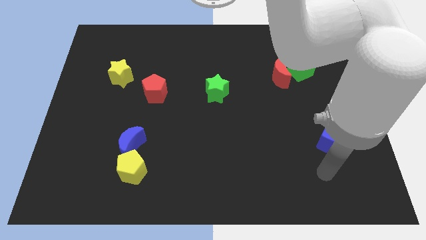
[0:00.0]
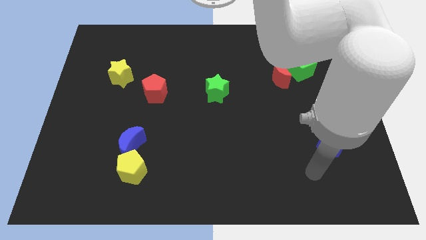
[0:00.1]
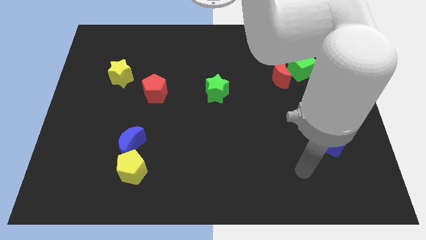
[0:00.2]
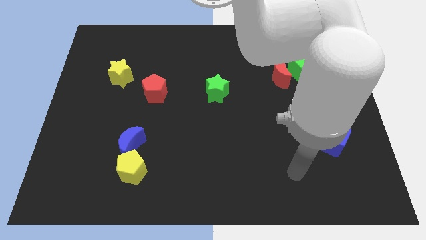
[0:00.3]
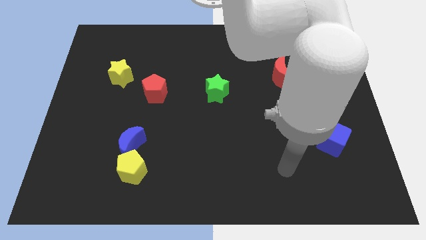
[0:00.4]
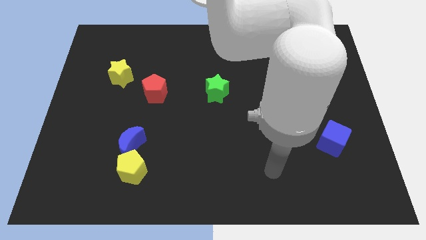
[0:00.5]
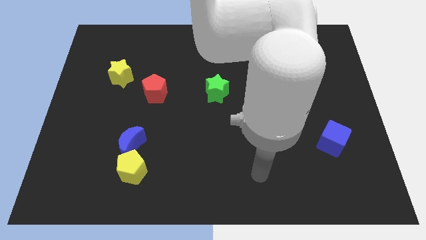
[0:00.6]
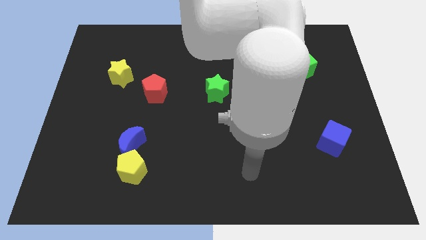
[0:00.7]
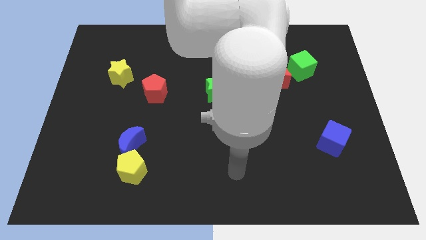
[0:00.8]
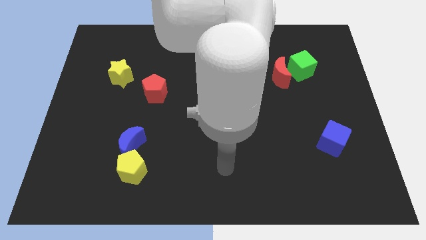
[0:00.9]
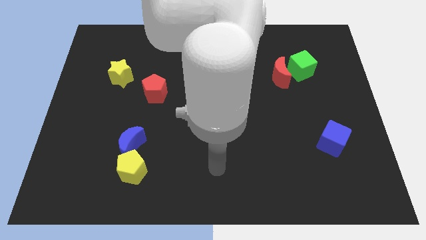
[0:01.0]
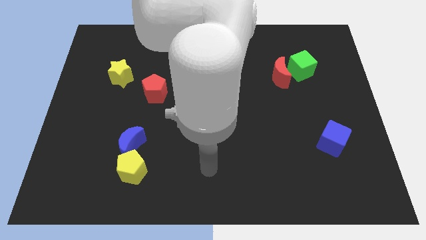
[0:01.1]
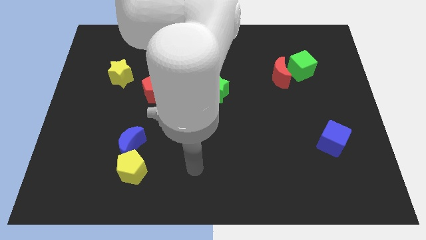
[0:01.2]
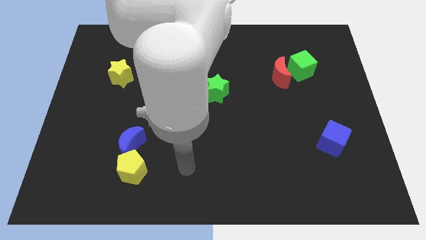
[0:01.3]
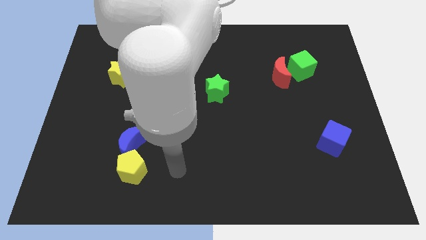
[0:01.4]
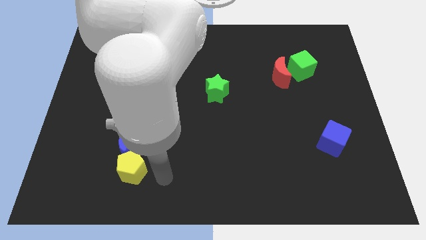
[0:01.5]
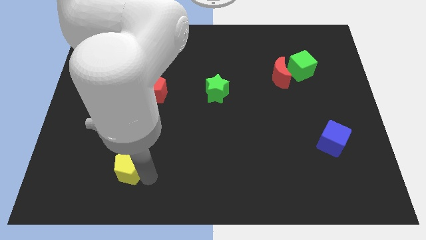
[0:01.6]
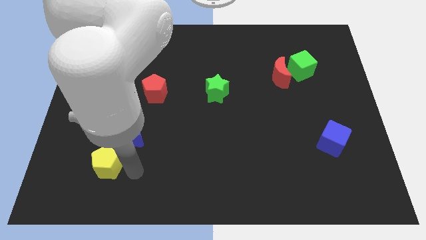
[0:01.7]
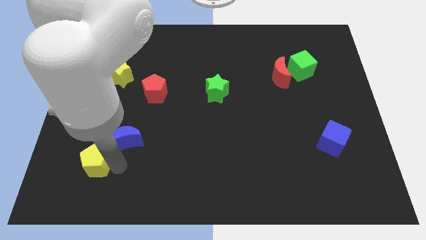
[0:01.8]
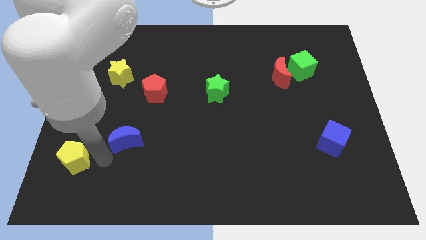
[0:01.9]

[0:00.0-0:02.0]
move the blue moon away from the yellow pentagon

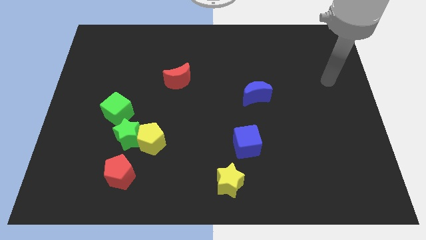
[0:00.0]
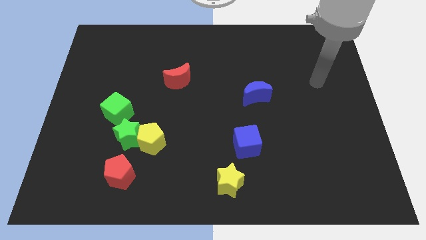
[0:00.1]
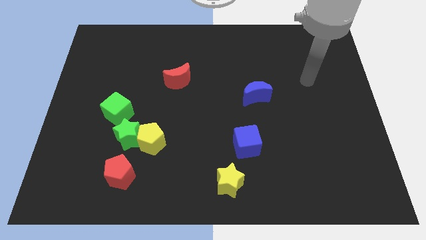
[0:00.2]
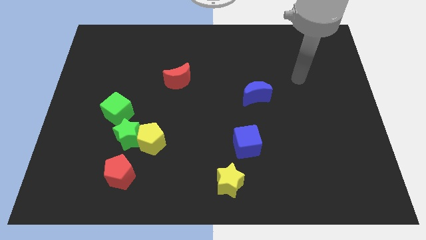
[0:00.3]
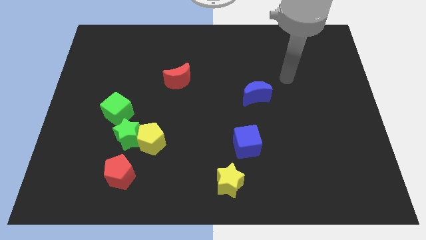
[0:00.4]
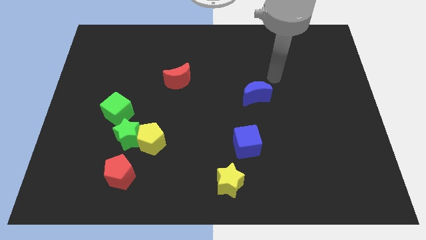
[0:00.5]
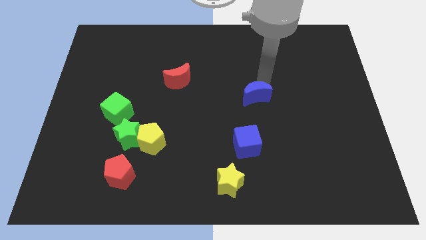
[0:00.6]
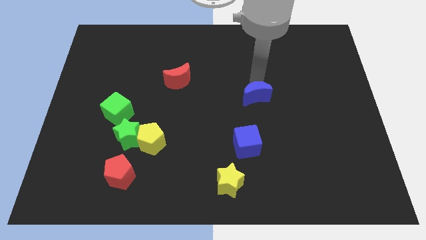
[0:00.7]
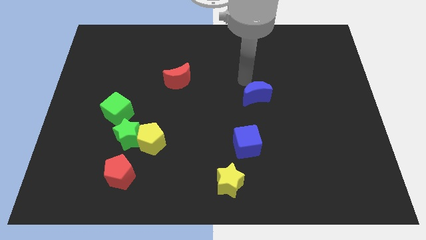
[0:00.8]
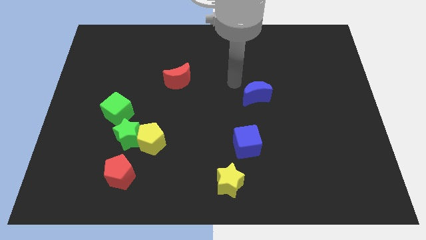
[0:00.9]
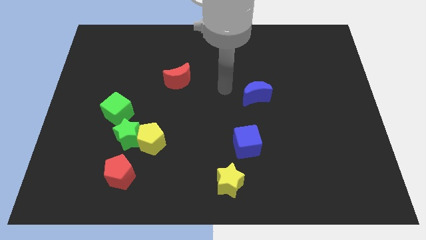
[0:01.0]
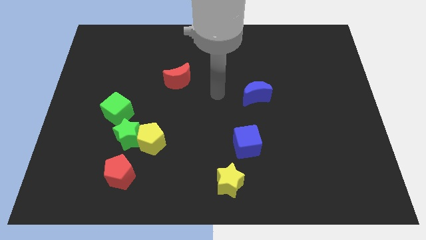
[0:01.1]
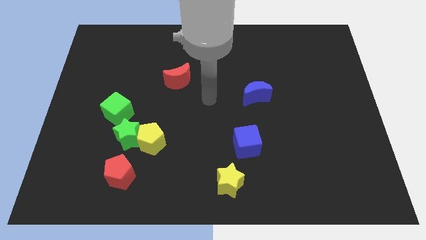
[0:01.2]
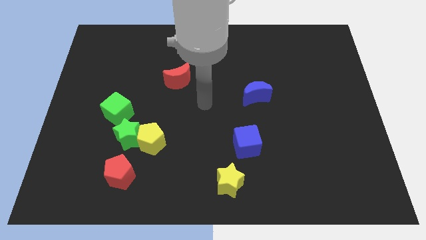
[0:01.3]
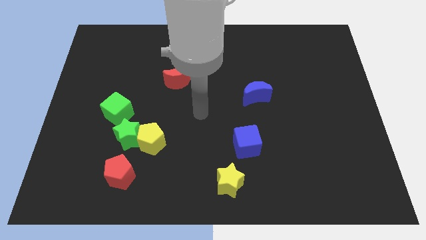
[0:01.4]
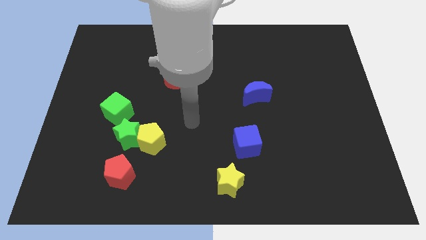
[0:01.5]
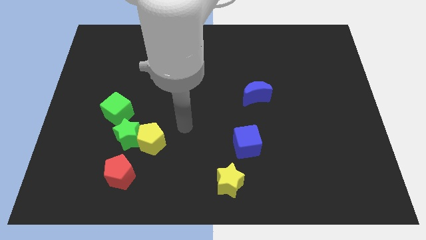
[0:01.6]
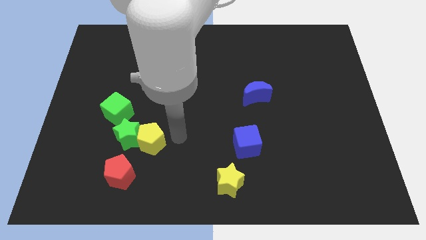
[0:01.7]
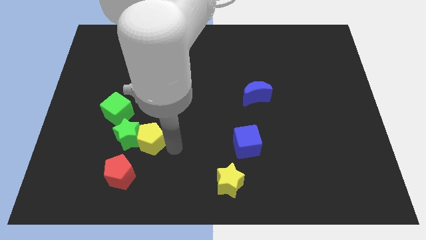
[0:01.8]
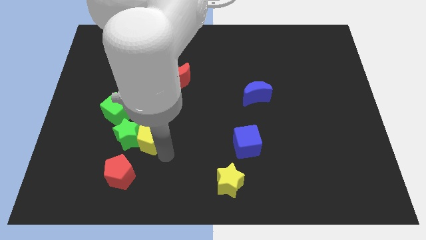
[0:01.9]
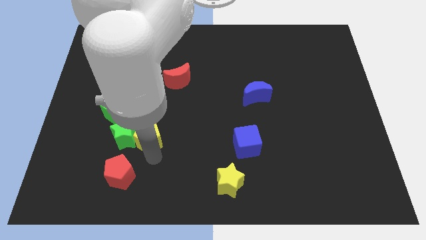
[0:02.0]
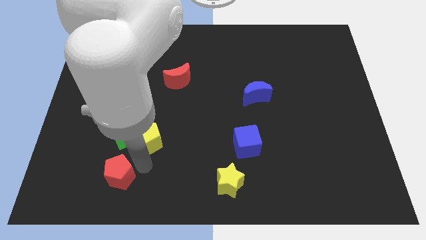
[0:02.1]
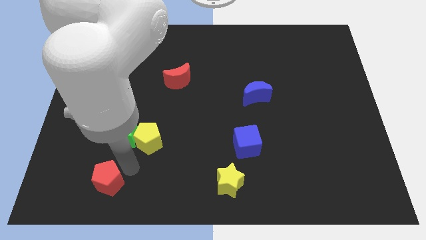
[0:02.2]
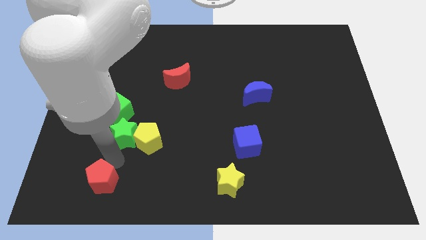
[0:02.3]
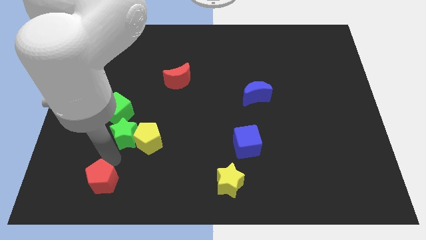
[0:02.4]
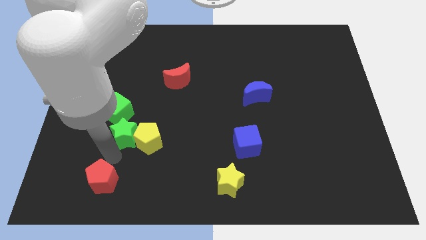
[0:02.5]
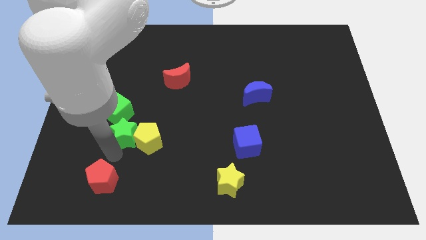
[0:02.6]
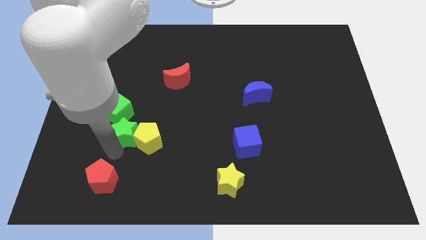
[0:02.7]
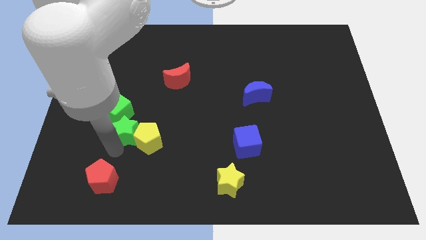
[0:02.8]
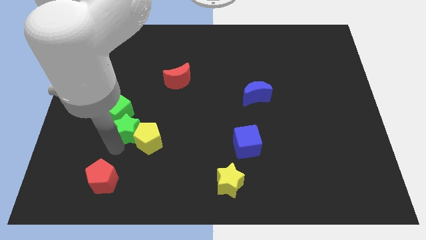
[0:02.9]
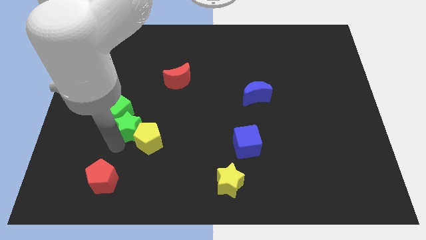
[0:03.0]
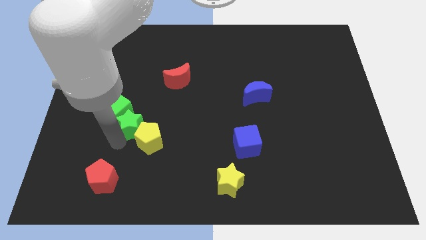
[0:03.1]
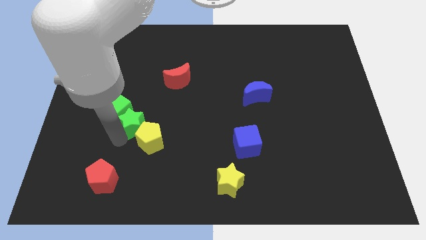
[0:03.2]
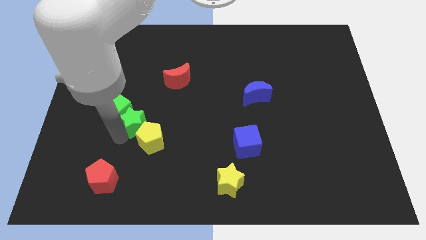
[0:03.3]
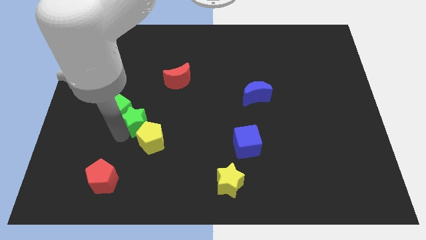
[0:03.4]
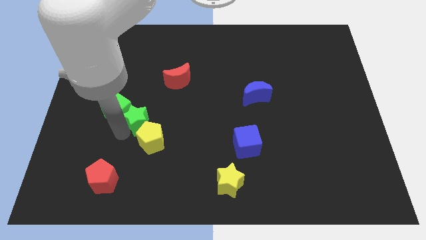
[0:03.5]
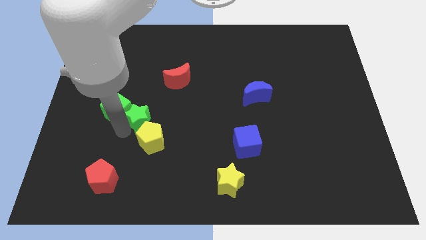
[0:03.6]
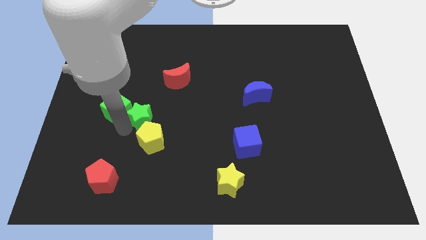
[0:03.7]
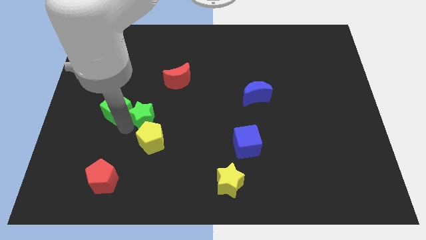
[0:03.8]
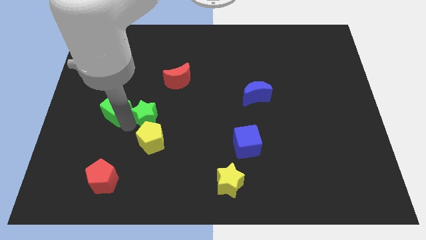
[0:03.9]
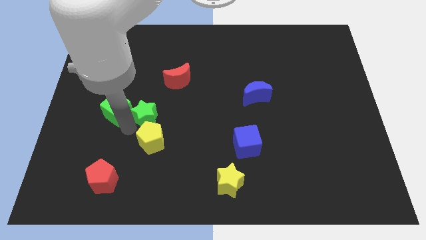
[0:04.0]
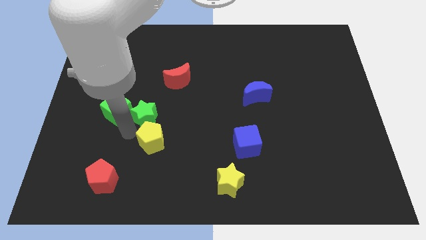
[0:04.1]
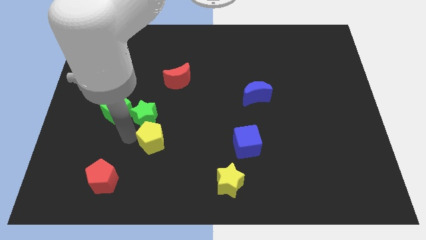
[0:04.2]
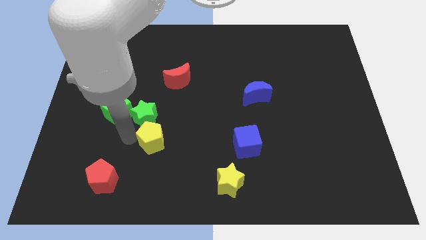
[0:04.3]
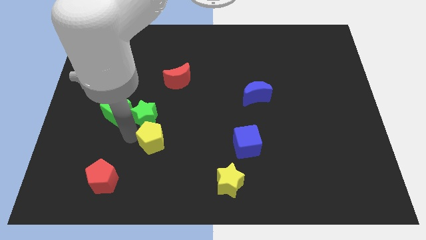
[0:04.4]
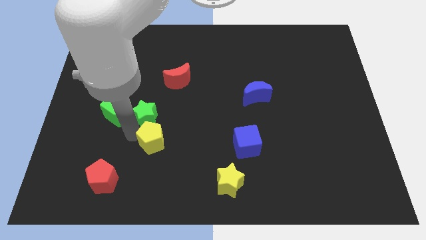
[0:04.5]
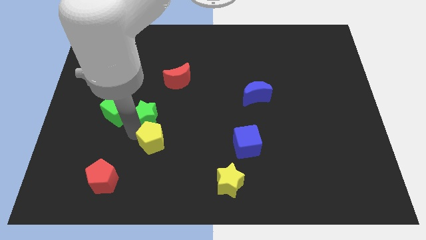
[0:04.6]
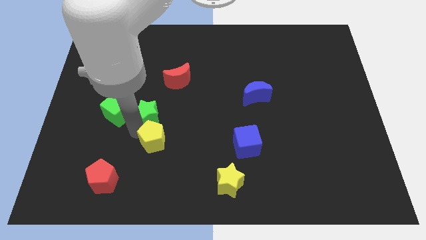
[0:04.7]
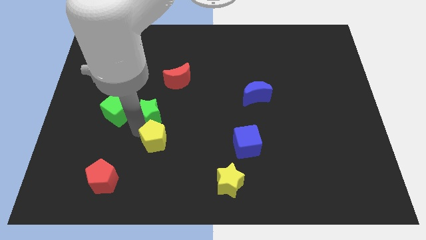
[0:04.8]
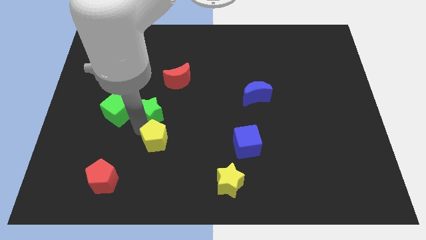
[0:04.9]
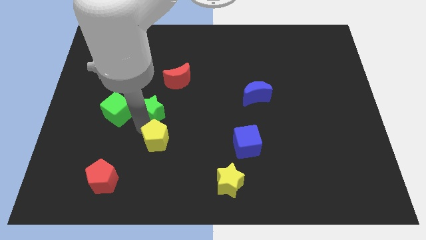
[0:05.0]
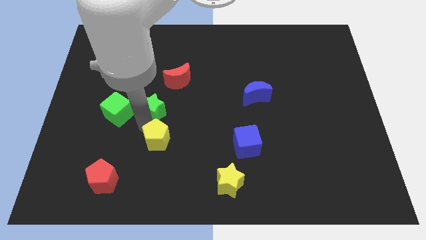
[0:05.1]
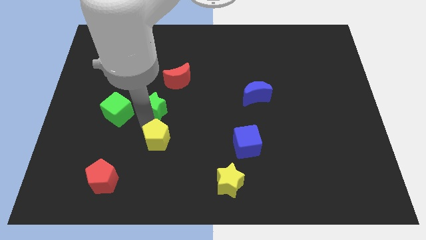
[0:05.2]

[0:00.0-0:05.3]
separate the green star from the yellow pentagon, green cube, and red pentagon

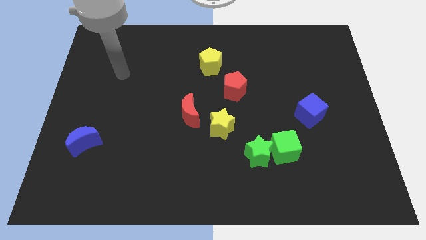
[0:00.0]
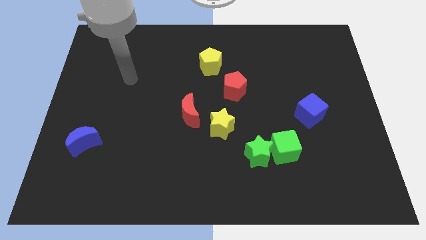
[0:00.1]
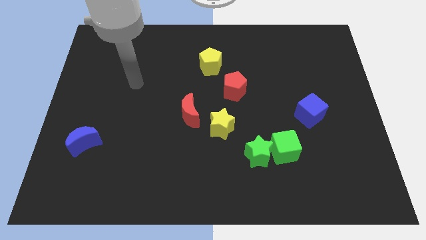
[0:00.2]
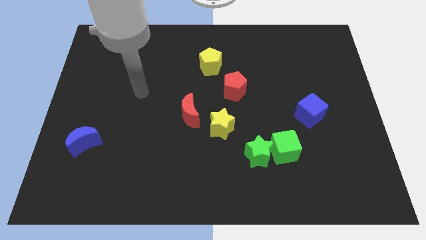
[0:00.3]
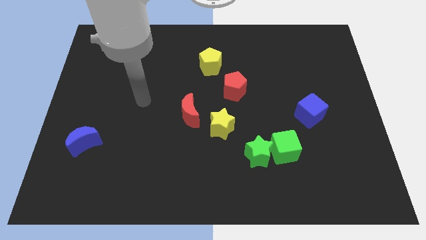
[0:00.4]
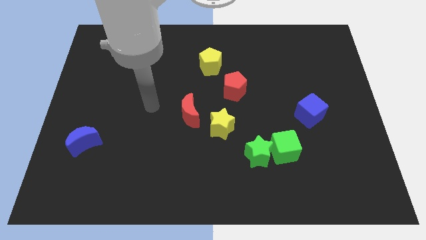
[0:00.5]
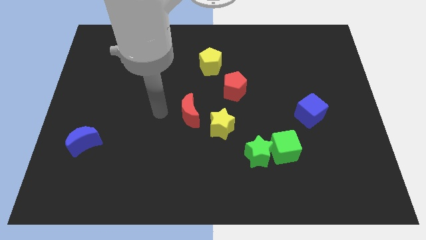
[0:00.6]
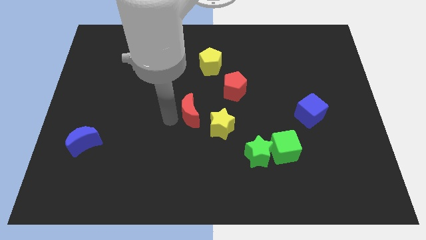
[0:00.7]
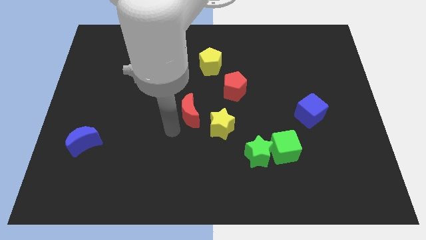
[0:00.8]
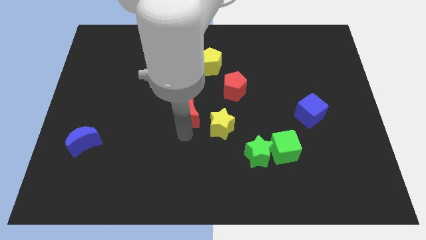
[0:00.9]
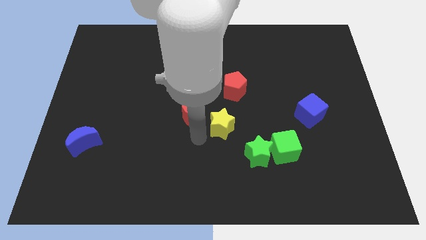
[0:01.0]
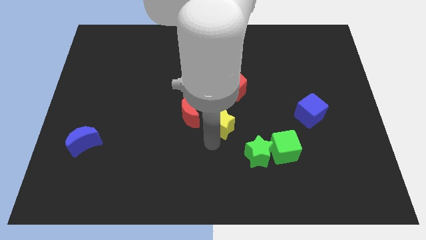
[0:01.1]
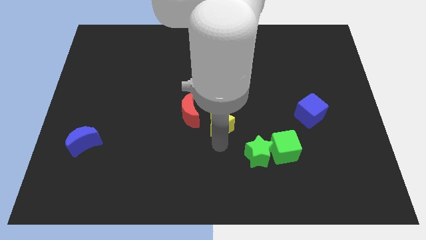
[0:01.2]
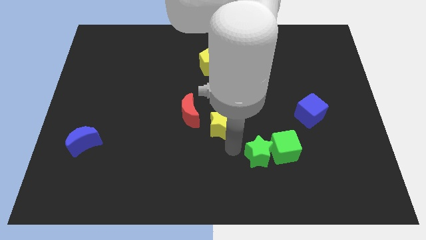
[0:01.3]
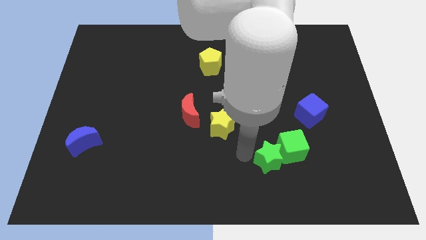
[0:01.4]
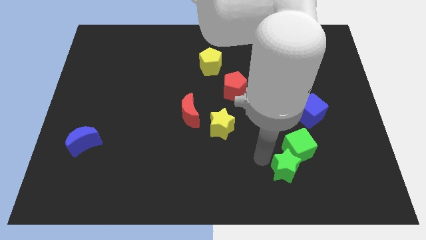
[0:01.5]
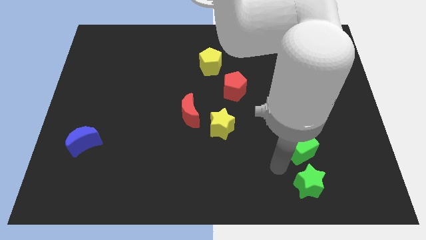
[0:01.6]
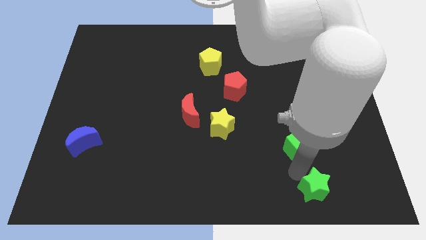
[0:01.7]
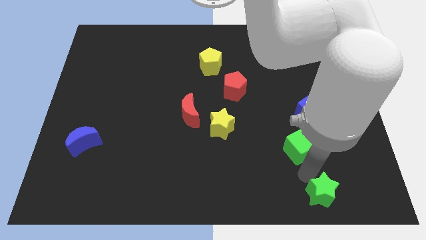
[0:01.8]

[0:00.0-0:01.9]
pull the green cube apart from the green star

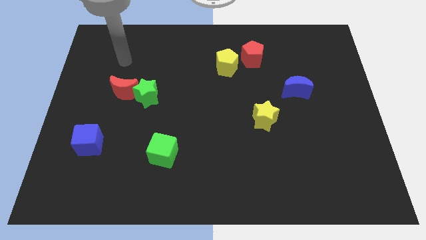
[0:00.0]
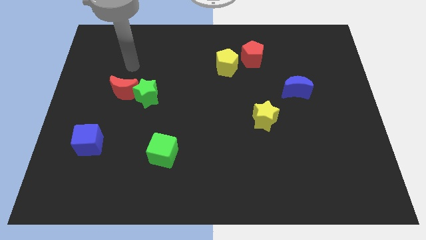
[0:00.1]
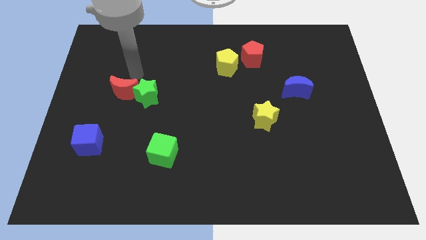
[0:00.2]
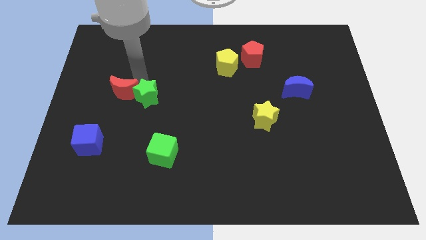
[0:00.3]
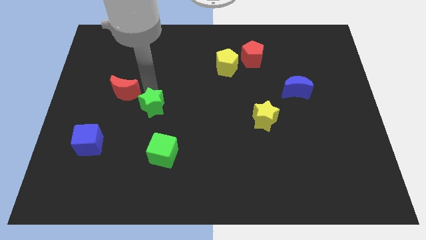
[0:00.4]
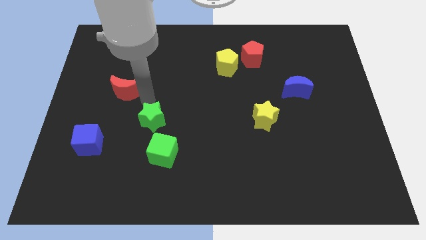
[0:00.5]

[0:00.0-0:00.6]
pull the red moon apart from the green star
